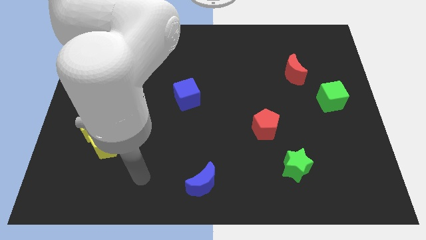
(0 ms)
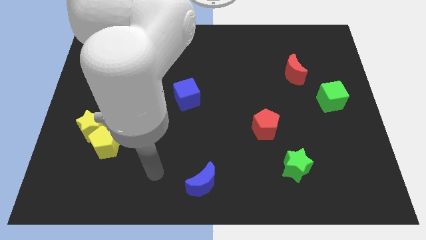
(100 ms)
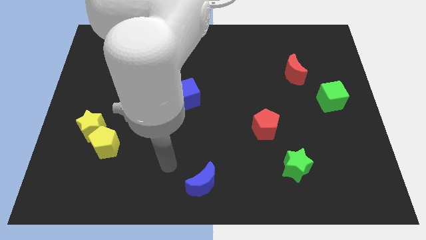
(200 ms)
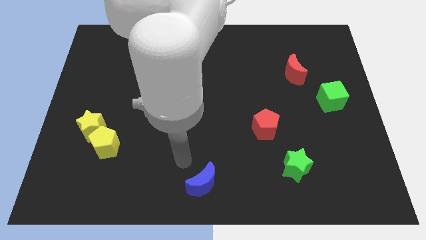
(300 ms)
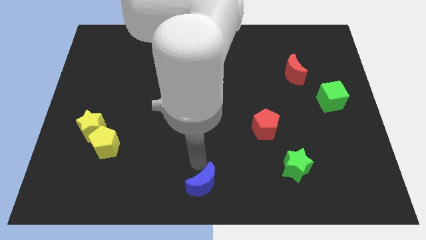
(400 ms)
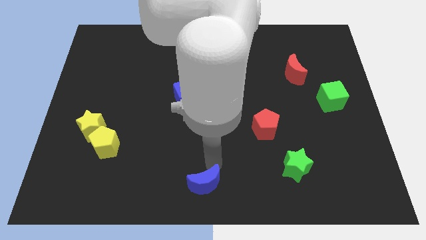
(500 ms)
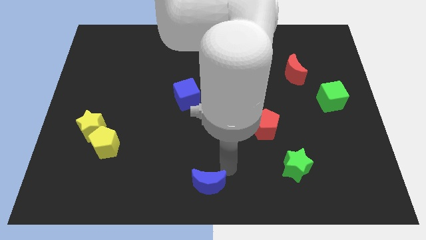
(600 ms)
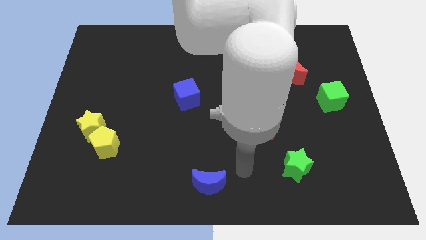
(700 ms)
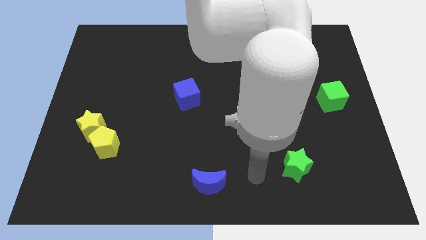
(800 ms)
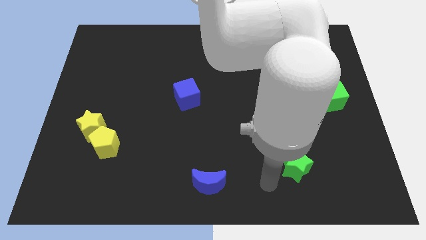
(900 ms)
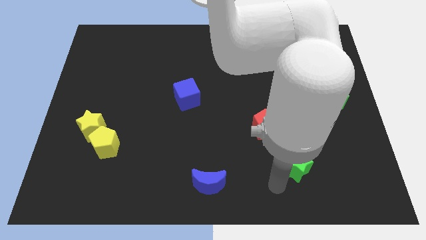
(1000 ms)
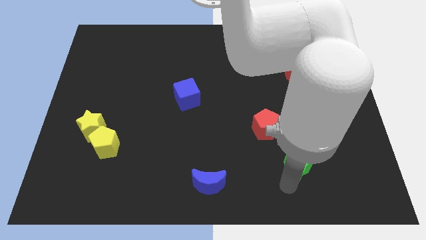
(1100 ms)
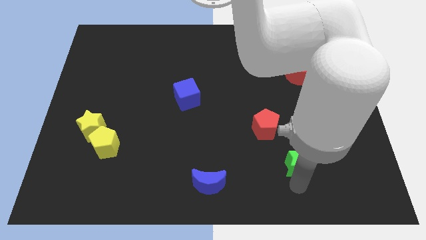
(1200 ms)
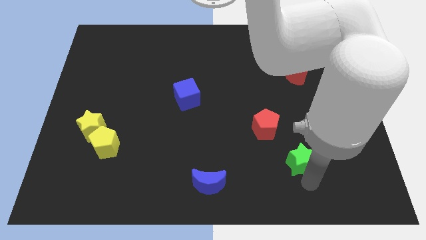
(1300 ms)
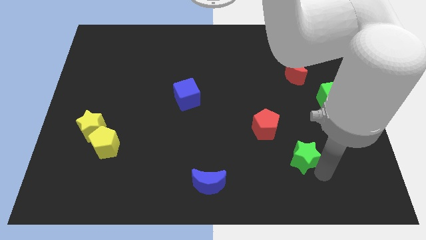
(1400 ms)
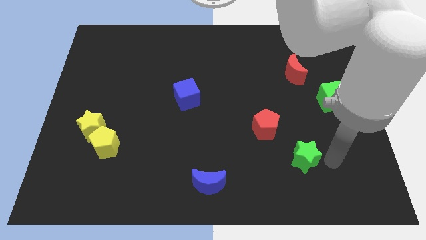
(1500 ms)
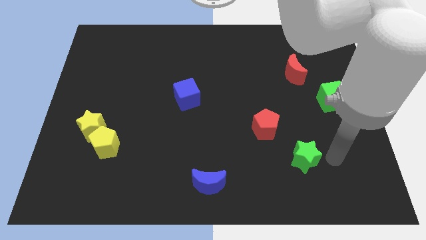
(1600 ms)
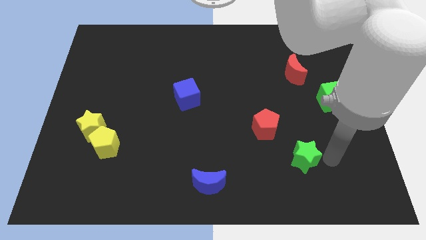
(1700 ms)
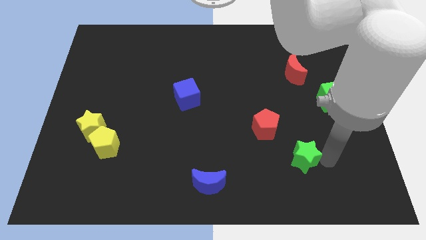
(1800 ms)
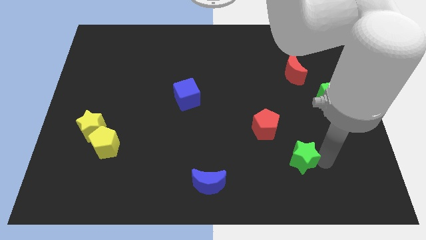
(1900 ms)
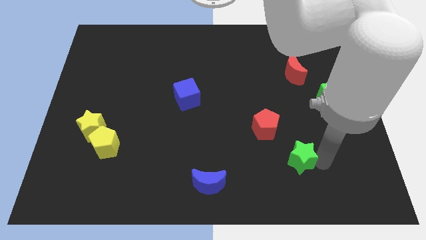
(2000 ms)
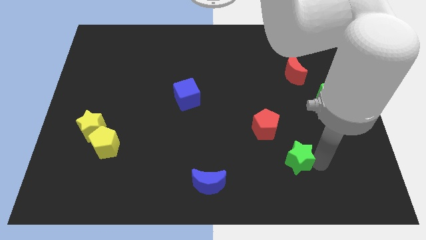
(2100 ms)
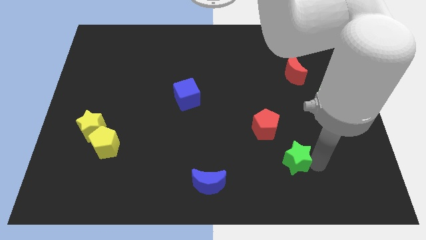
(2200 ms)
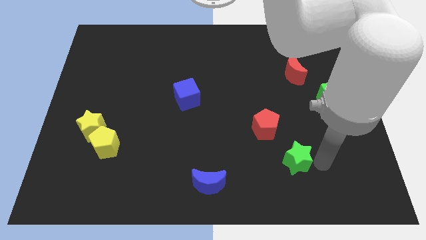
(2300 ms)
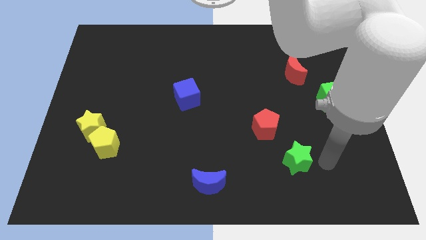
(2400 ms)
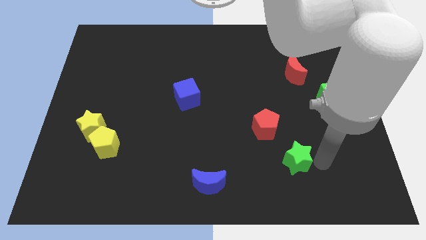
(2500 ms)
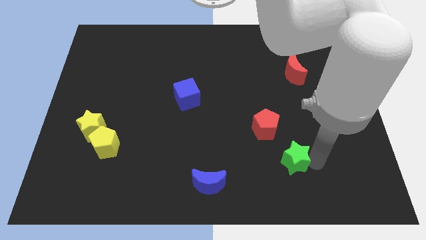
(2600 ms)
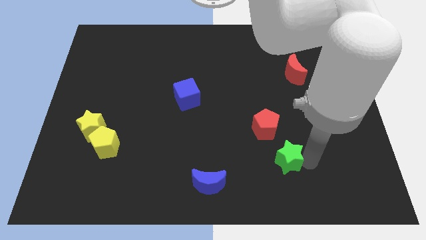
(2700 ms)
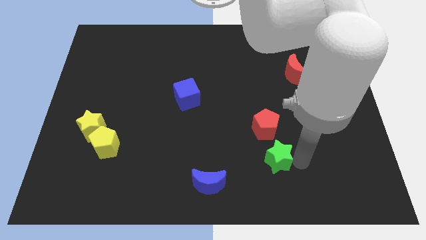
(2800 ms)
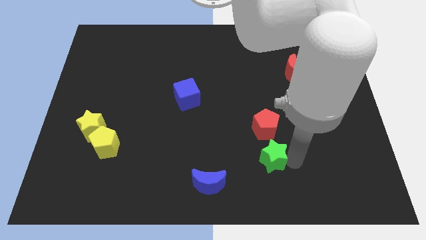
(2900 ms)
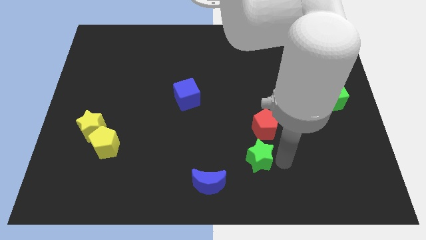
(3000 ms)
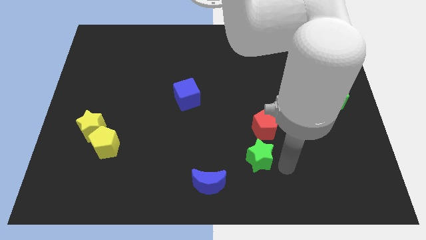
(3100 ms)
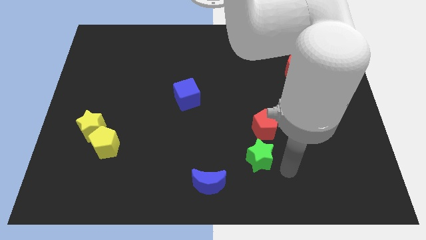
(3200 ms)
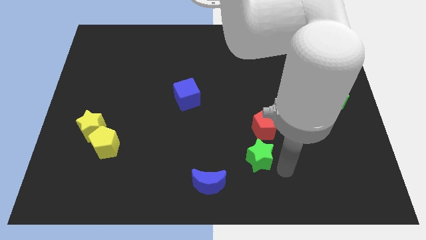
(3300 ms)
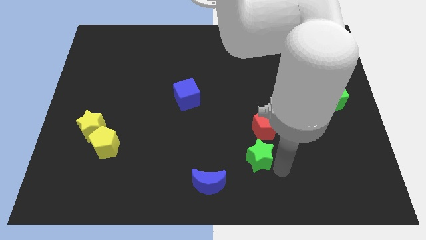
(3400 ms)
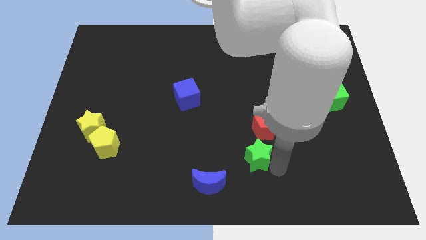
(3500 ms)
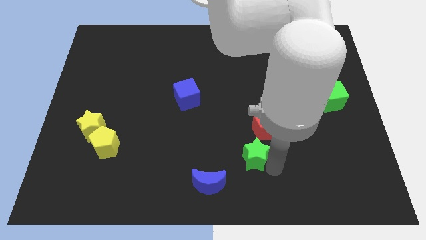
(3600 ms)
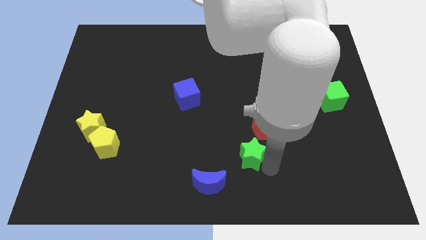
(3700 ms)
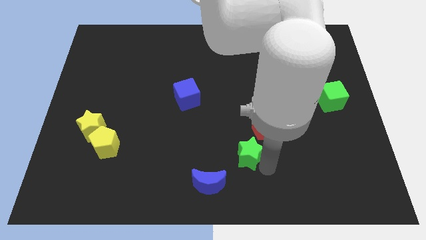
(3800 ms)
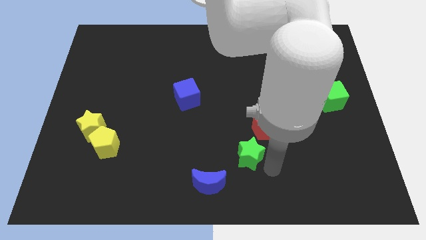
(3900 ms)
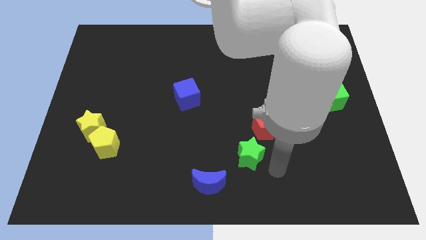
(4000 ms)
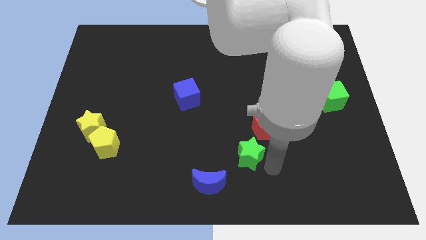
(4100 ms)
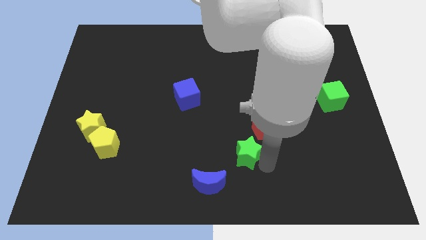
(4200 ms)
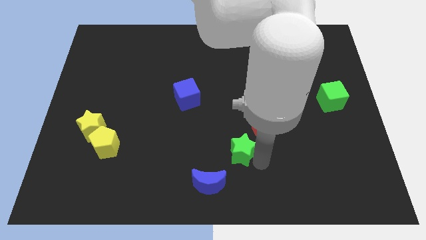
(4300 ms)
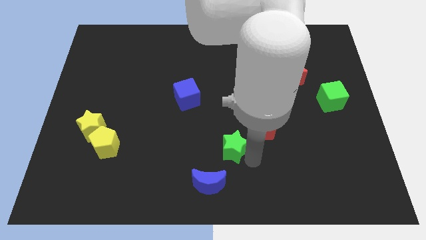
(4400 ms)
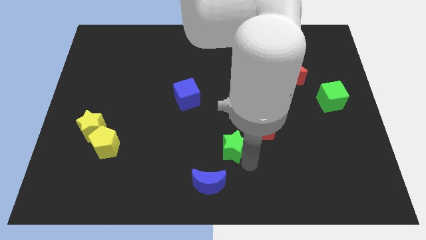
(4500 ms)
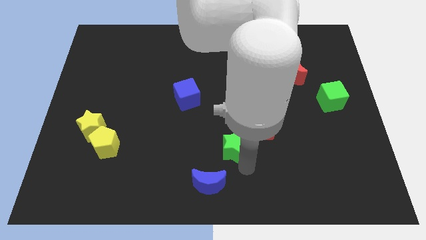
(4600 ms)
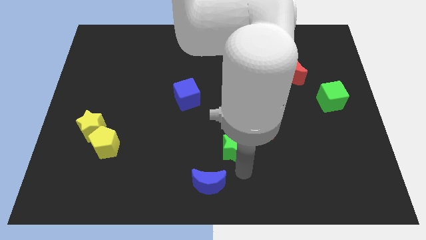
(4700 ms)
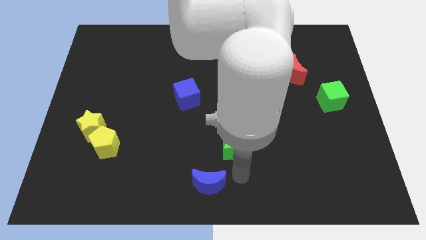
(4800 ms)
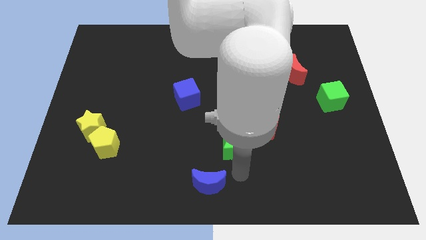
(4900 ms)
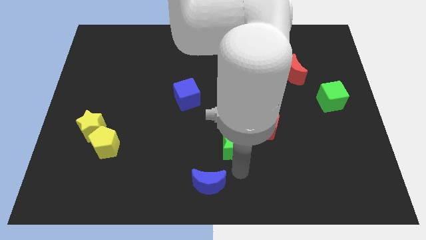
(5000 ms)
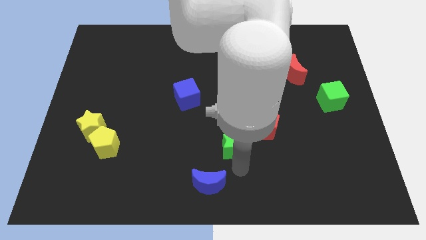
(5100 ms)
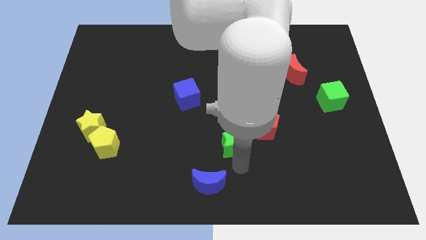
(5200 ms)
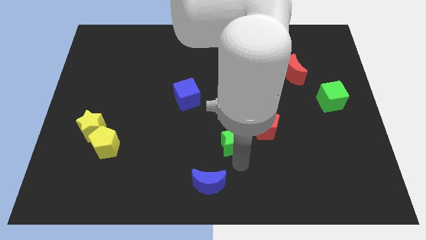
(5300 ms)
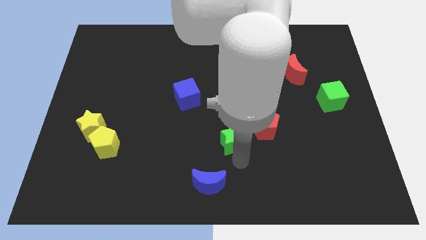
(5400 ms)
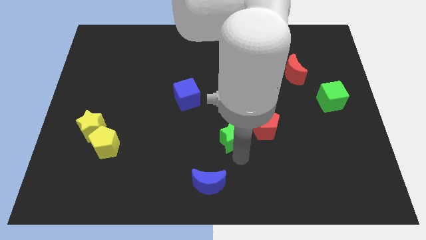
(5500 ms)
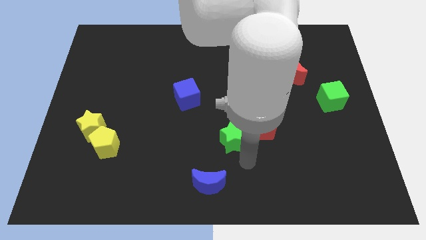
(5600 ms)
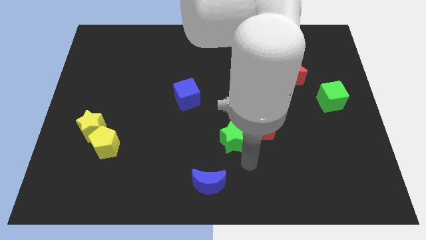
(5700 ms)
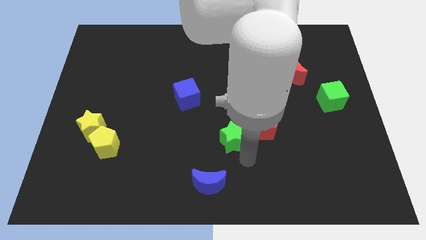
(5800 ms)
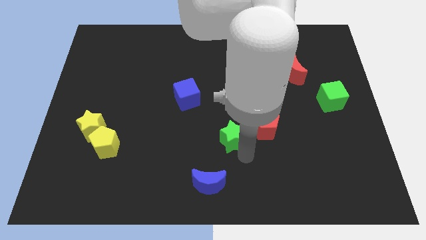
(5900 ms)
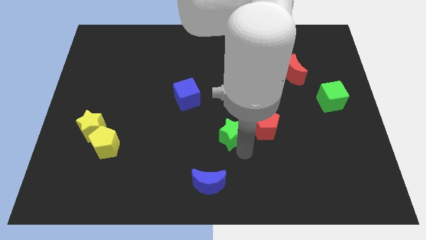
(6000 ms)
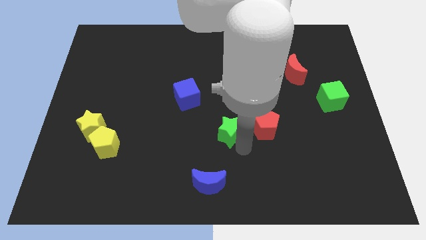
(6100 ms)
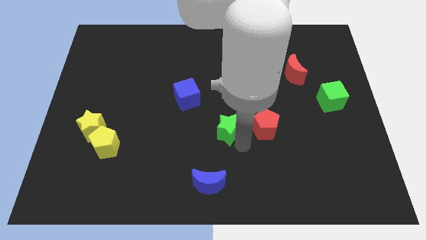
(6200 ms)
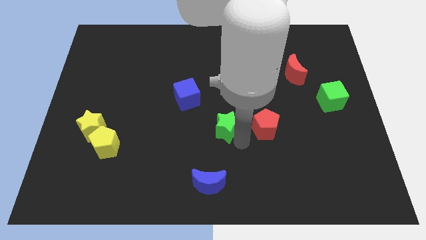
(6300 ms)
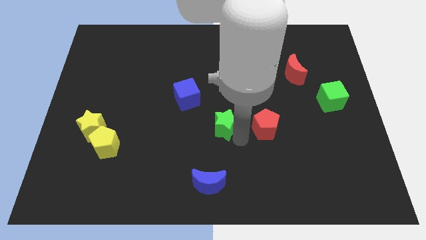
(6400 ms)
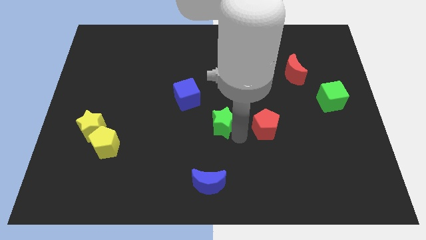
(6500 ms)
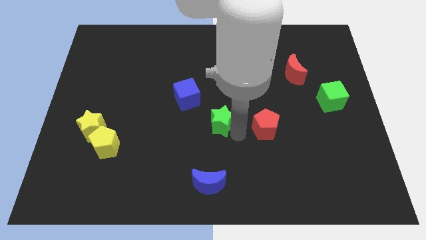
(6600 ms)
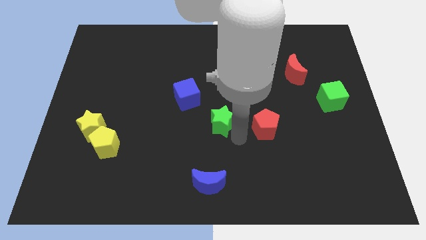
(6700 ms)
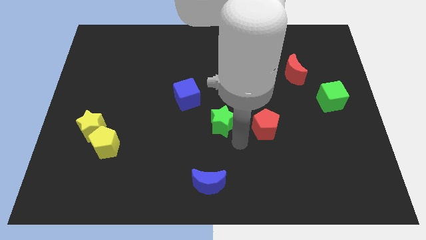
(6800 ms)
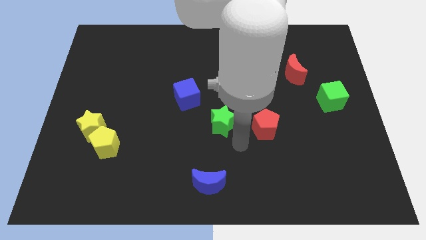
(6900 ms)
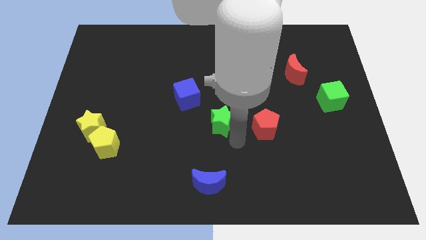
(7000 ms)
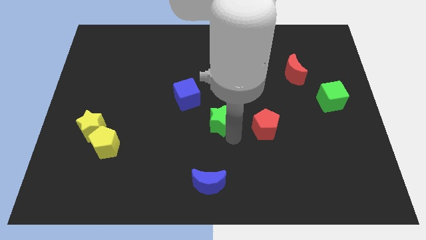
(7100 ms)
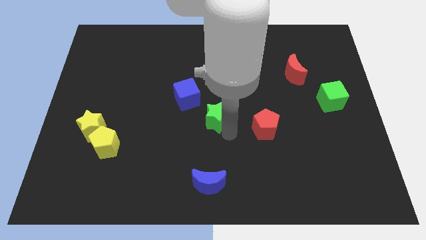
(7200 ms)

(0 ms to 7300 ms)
push the green star up and then left

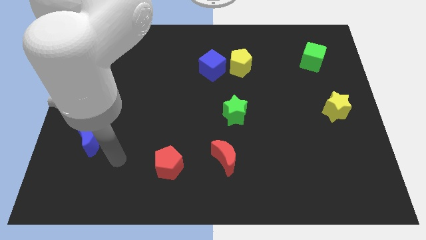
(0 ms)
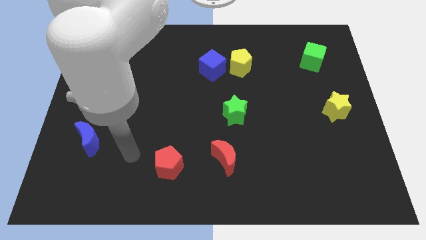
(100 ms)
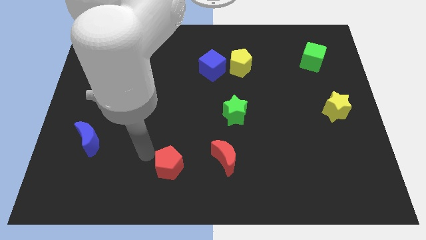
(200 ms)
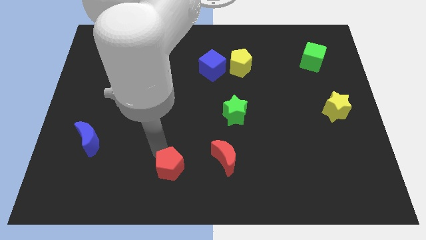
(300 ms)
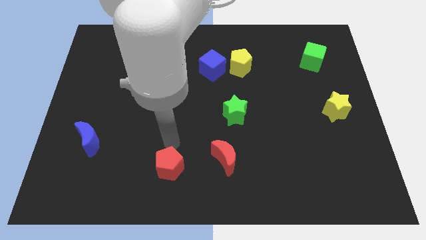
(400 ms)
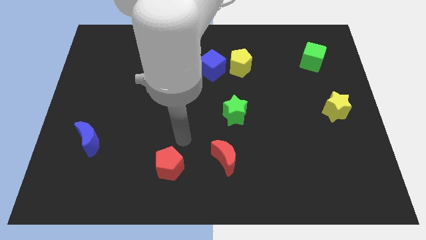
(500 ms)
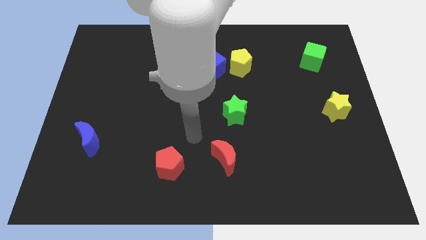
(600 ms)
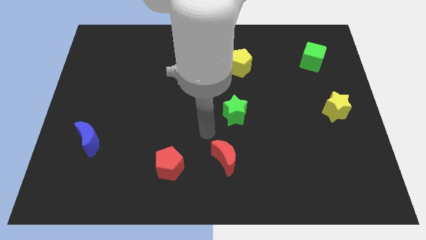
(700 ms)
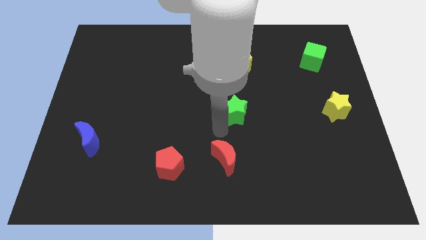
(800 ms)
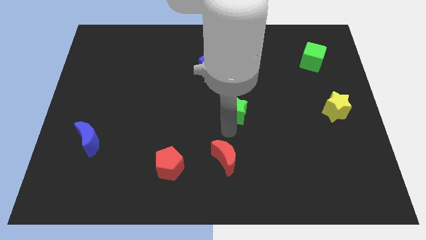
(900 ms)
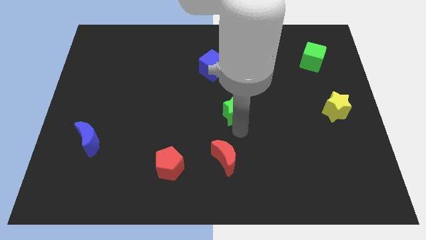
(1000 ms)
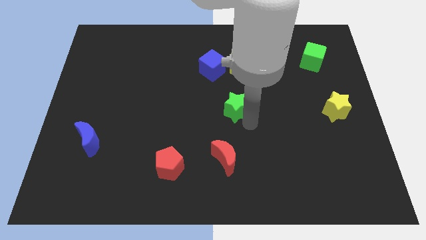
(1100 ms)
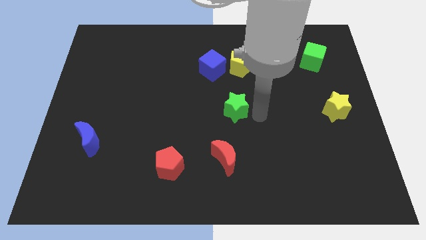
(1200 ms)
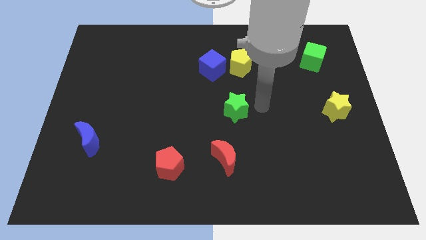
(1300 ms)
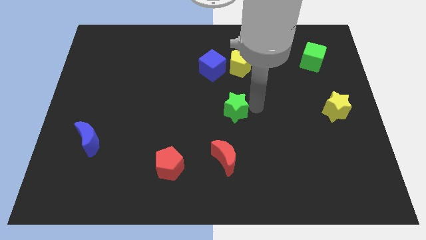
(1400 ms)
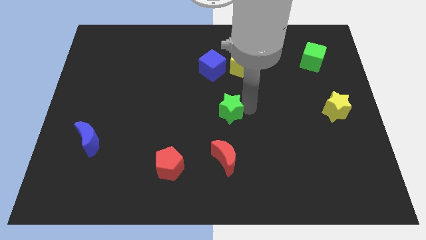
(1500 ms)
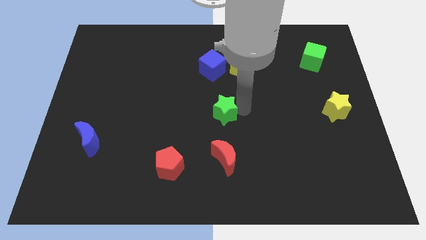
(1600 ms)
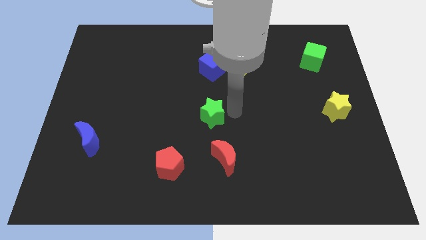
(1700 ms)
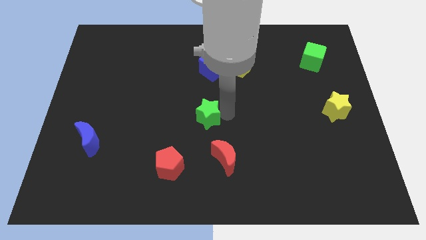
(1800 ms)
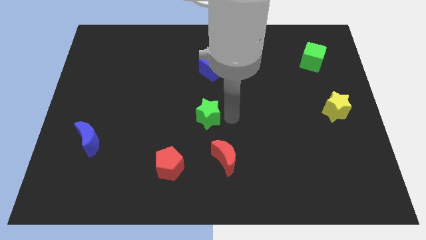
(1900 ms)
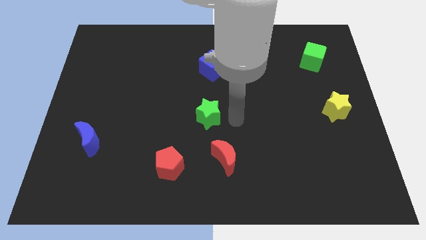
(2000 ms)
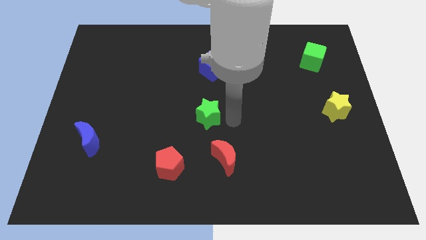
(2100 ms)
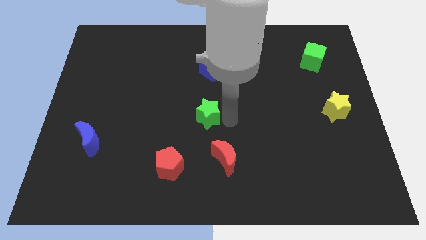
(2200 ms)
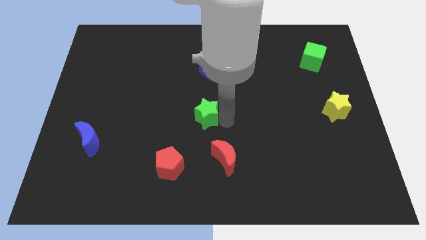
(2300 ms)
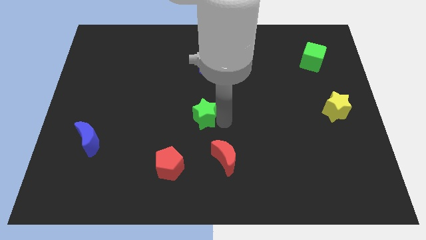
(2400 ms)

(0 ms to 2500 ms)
slide the green star left a little bit
